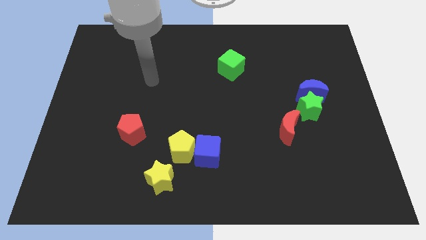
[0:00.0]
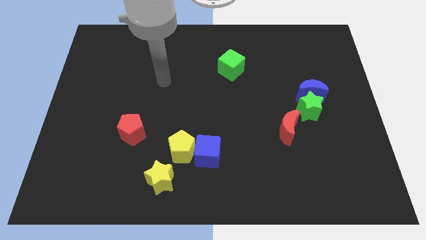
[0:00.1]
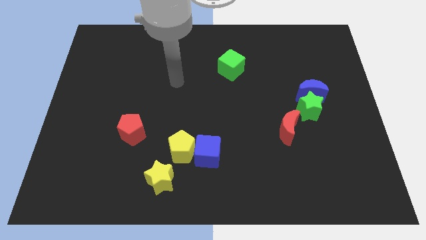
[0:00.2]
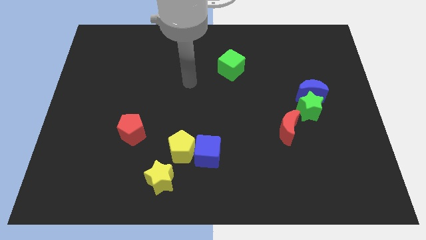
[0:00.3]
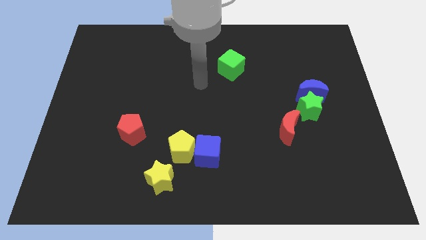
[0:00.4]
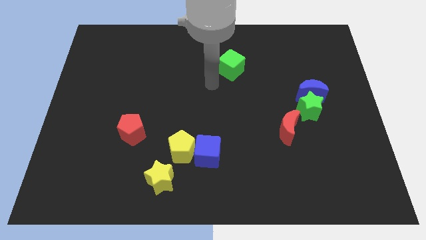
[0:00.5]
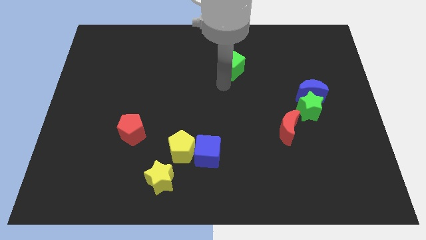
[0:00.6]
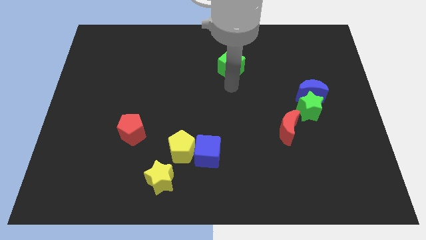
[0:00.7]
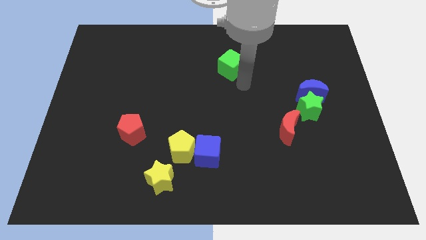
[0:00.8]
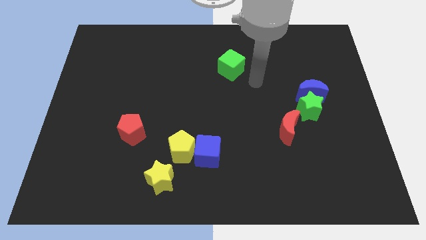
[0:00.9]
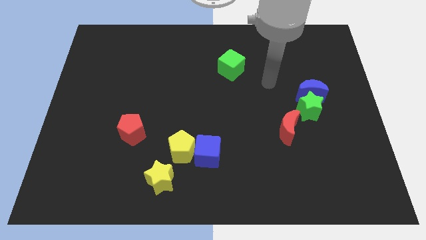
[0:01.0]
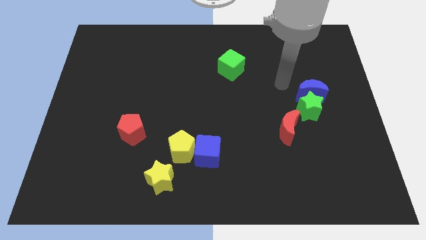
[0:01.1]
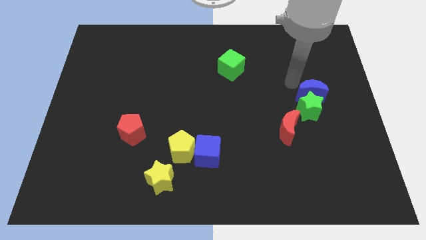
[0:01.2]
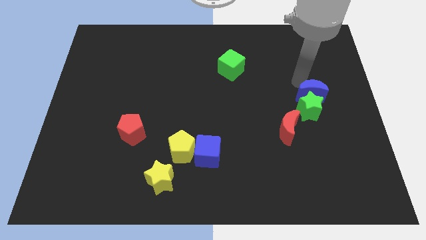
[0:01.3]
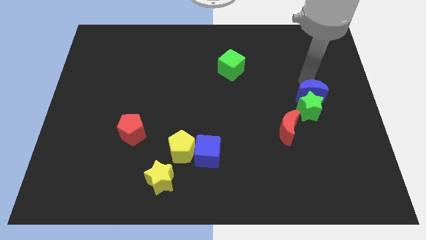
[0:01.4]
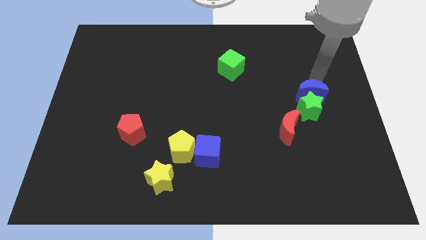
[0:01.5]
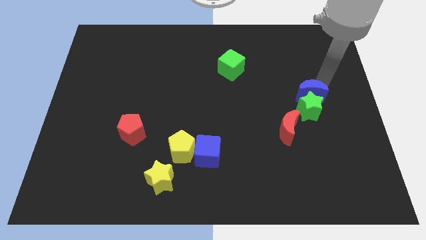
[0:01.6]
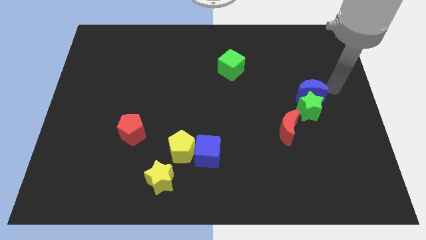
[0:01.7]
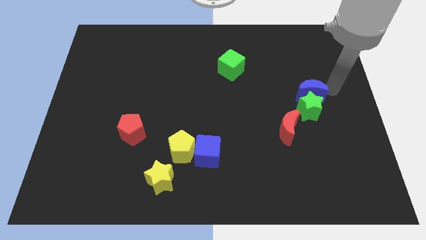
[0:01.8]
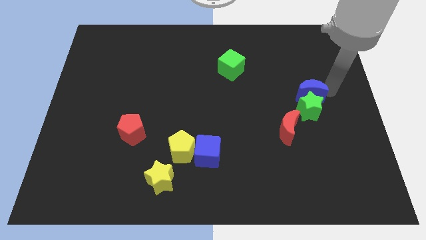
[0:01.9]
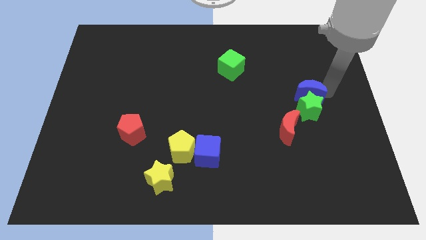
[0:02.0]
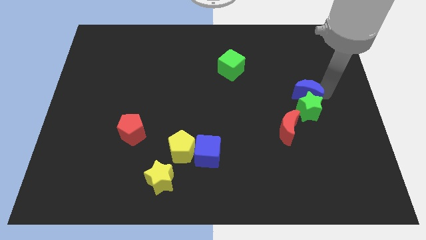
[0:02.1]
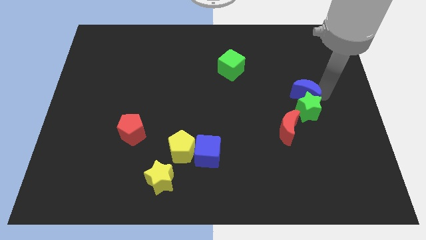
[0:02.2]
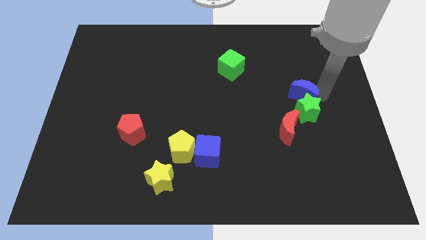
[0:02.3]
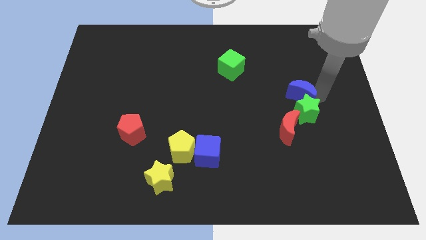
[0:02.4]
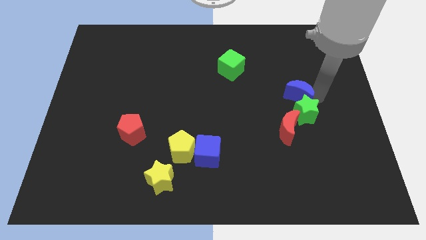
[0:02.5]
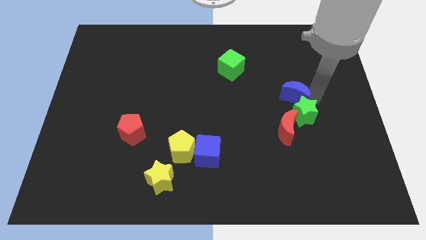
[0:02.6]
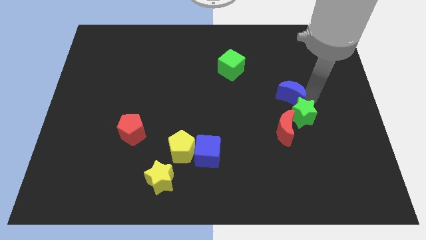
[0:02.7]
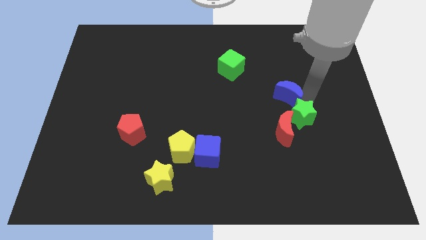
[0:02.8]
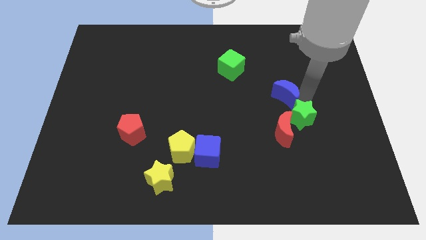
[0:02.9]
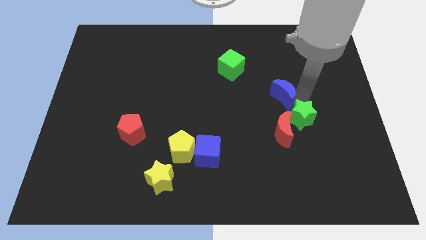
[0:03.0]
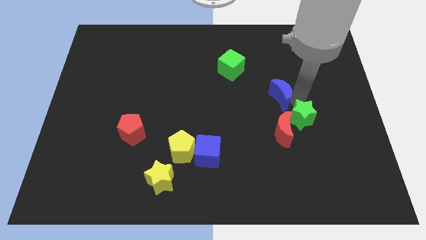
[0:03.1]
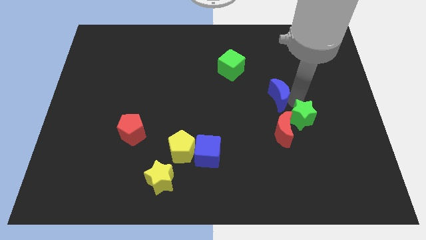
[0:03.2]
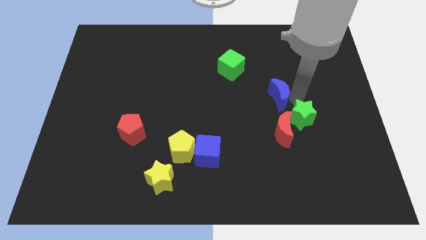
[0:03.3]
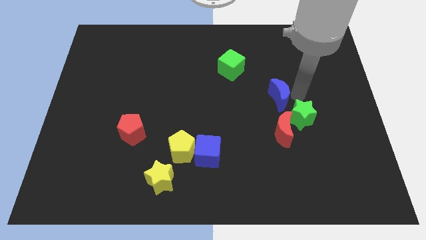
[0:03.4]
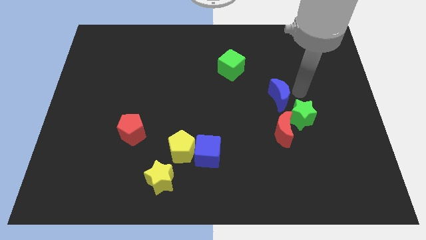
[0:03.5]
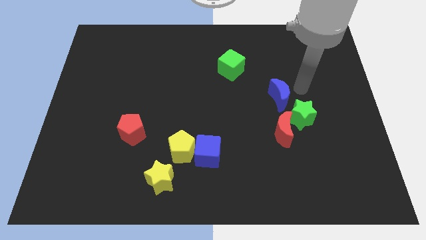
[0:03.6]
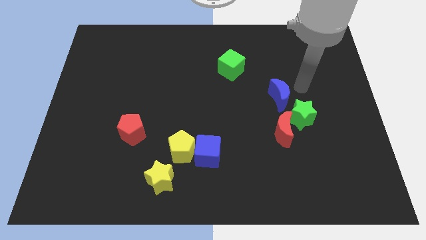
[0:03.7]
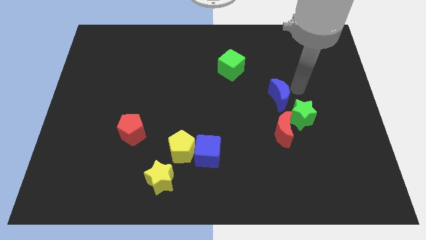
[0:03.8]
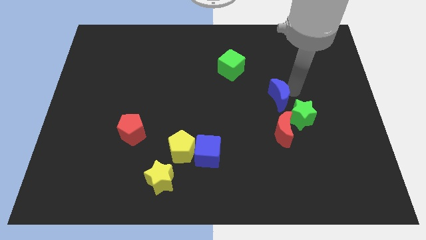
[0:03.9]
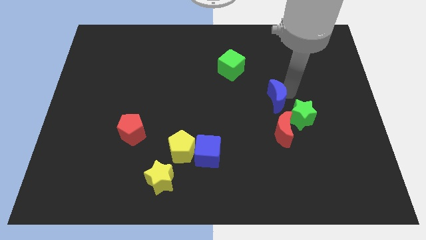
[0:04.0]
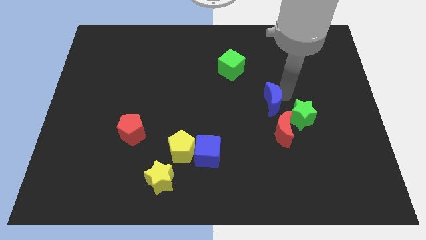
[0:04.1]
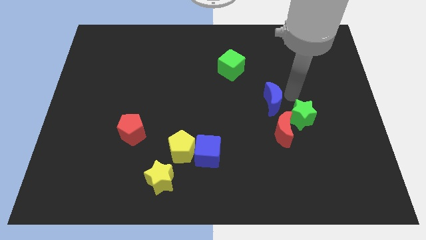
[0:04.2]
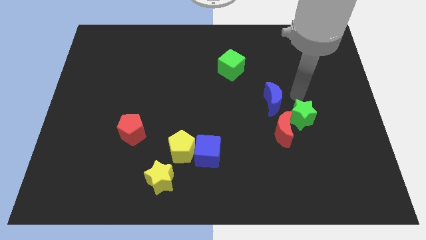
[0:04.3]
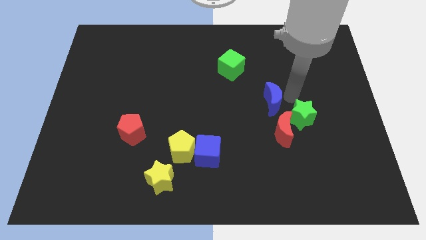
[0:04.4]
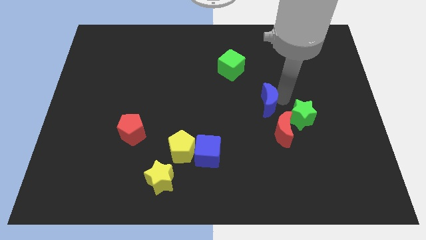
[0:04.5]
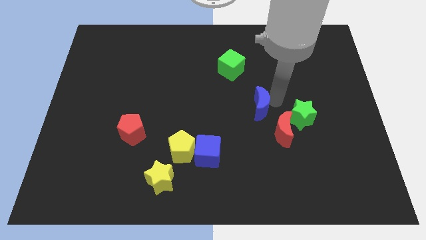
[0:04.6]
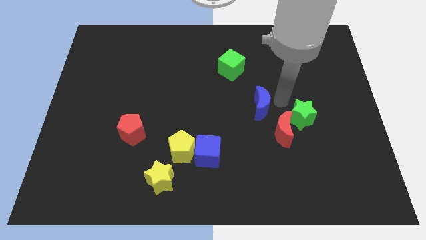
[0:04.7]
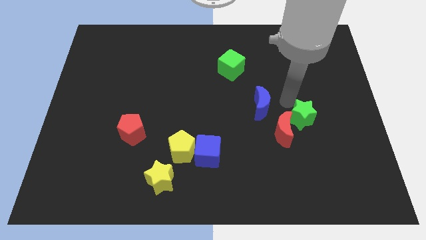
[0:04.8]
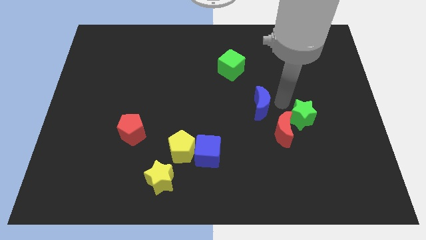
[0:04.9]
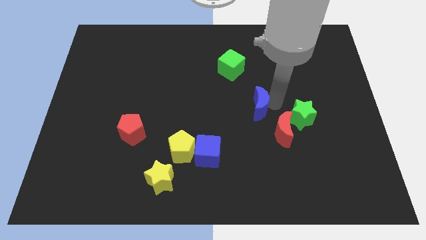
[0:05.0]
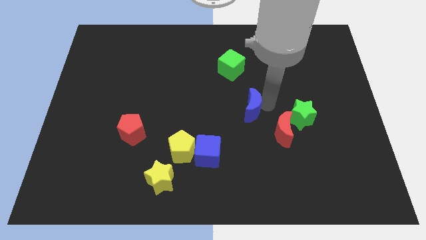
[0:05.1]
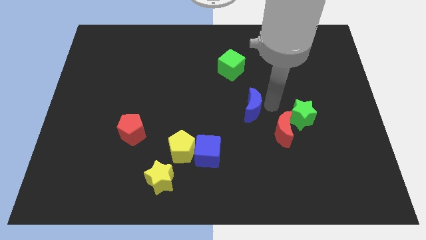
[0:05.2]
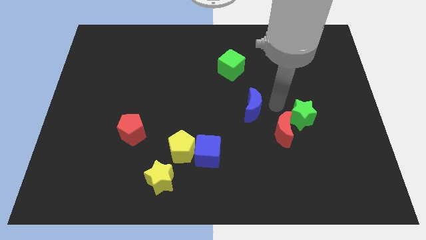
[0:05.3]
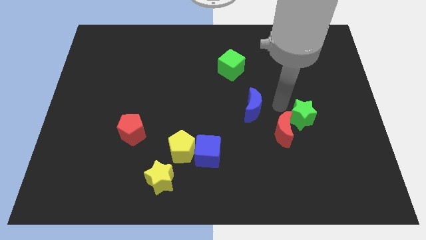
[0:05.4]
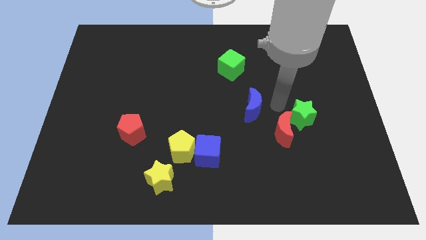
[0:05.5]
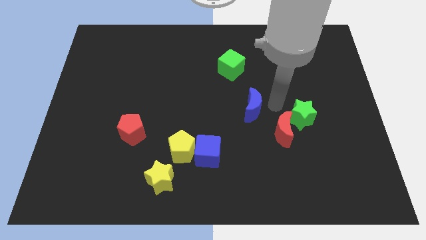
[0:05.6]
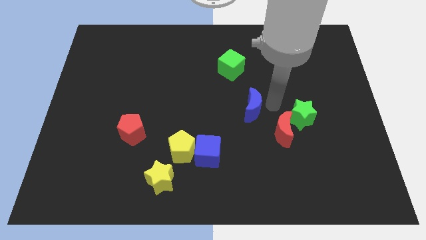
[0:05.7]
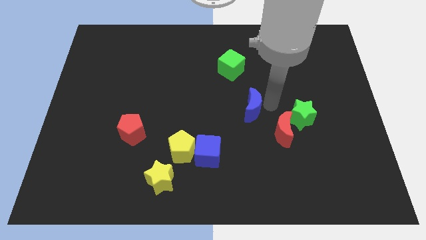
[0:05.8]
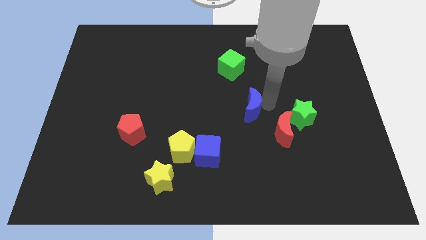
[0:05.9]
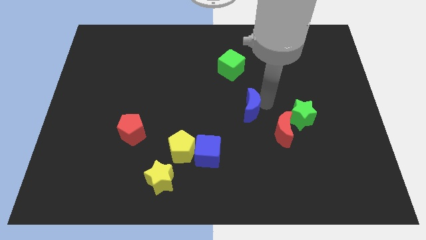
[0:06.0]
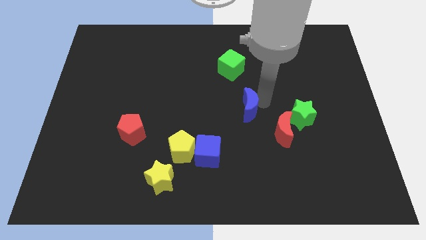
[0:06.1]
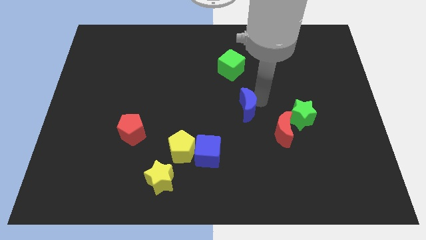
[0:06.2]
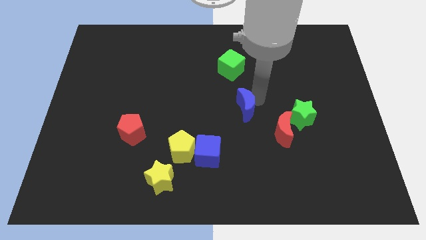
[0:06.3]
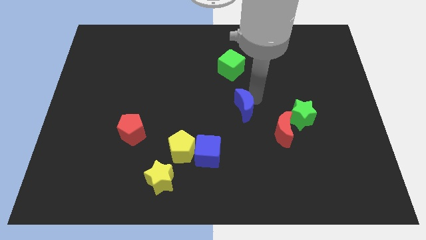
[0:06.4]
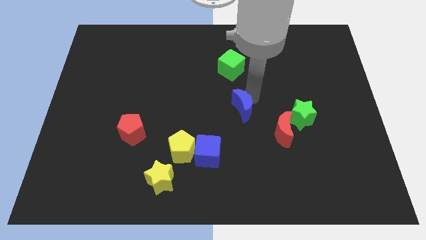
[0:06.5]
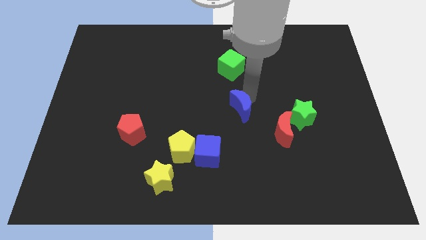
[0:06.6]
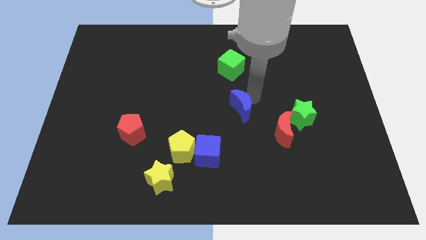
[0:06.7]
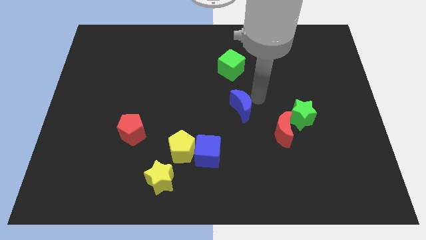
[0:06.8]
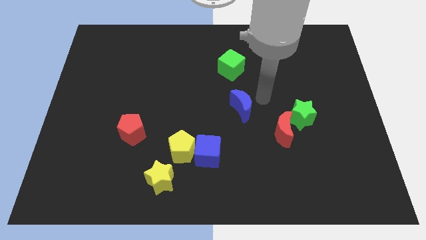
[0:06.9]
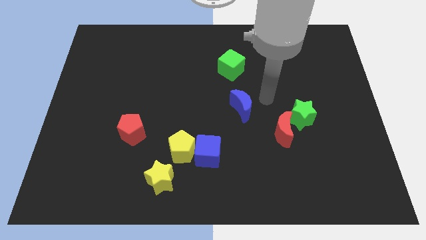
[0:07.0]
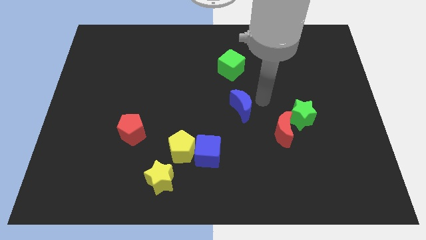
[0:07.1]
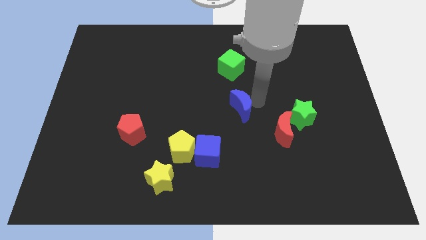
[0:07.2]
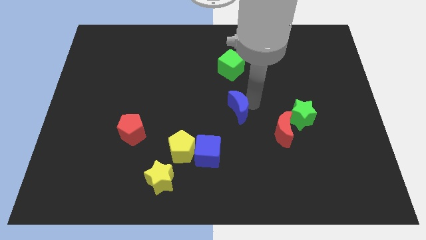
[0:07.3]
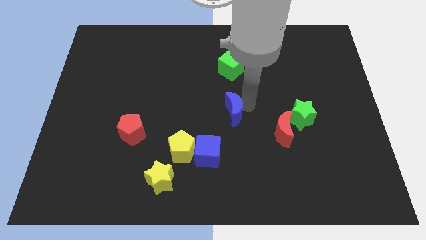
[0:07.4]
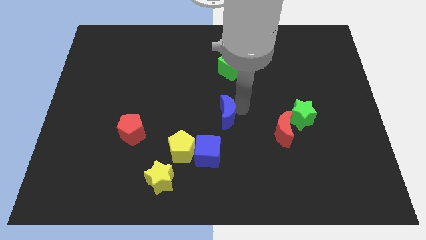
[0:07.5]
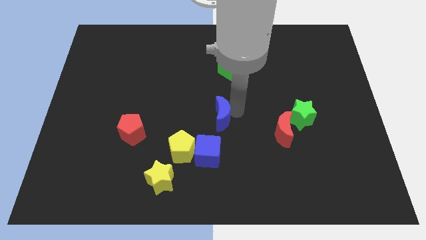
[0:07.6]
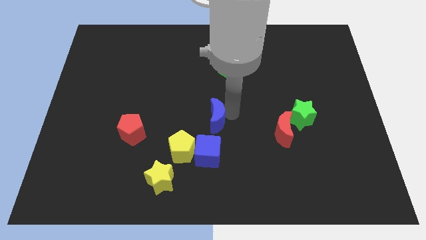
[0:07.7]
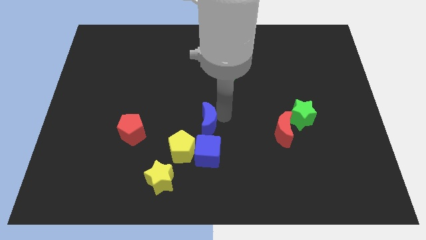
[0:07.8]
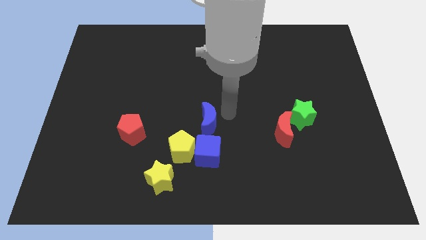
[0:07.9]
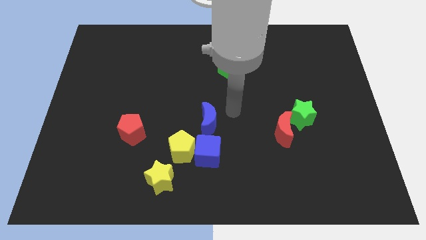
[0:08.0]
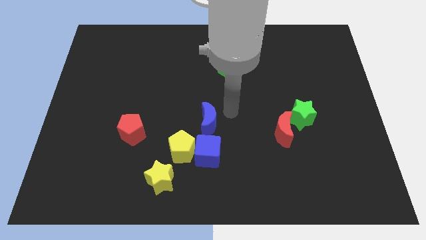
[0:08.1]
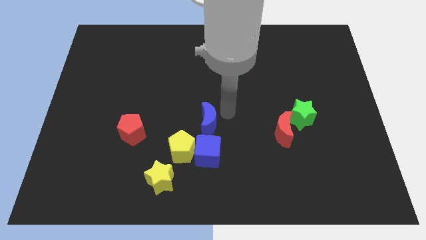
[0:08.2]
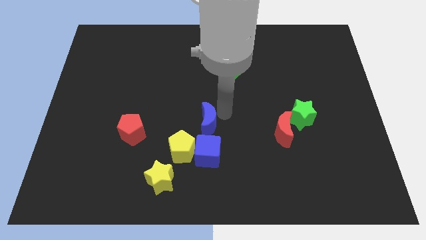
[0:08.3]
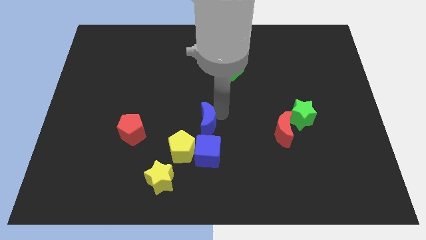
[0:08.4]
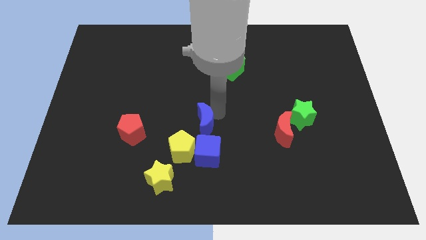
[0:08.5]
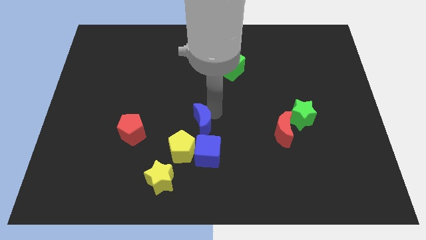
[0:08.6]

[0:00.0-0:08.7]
slide the blue moon to the top left side of the blue cube
